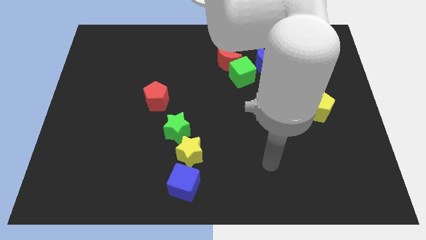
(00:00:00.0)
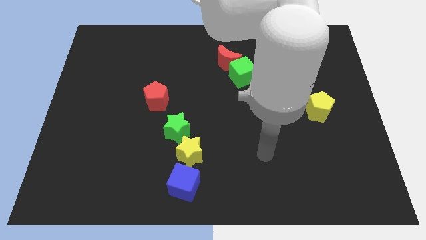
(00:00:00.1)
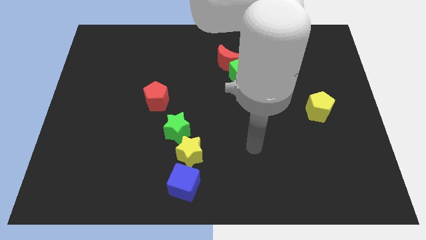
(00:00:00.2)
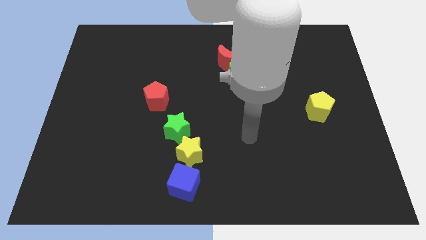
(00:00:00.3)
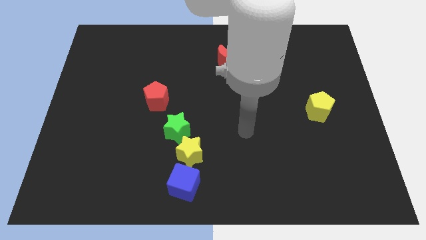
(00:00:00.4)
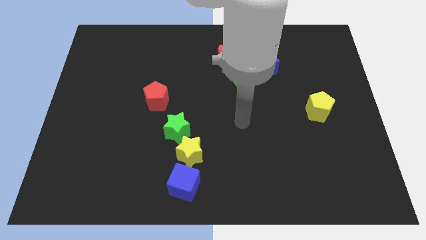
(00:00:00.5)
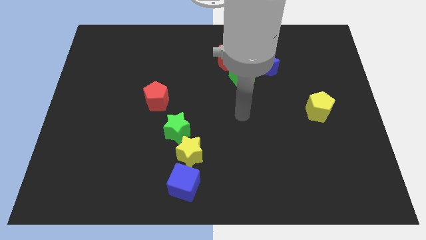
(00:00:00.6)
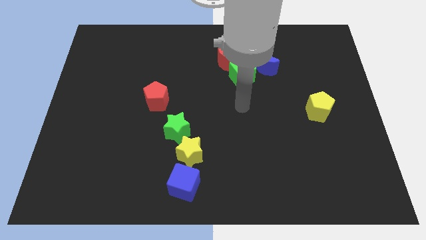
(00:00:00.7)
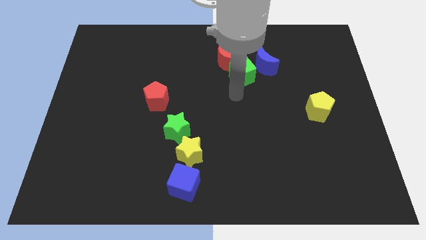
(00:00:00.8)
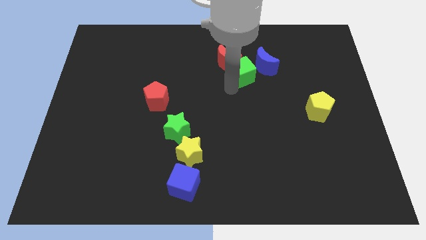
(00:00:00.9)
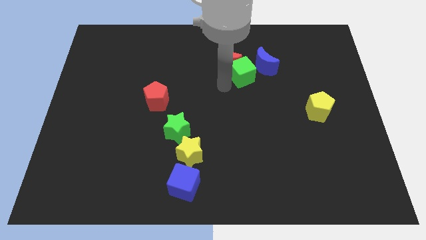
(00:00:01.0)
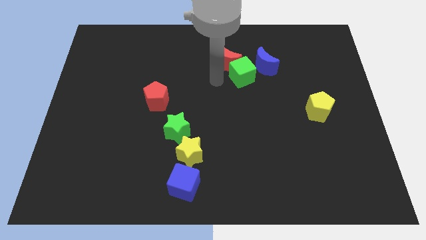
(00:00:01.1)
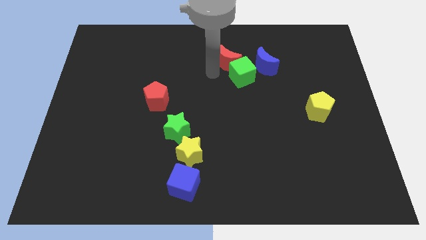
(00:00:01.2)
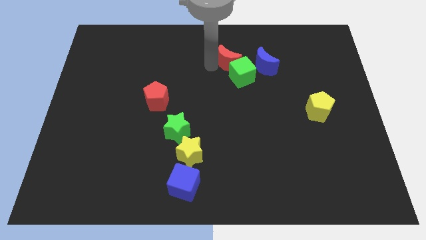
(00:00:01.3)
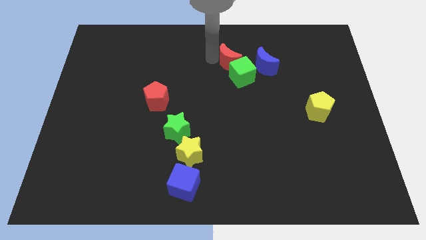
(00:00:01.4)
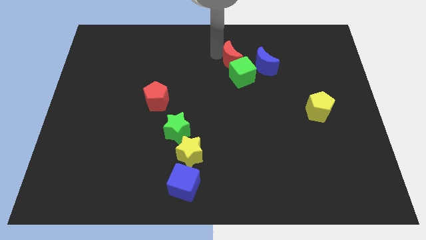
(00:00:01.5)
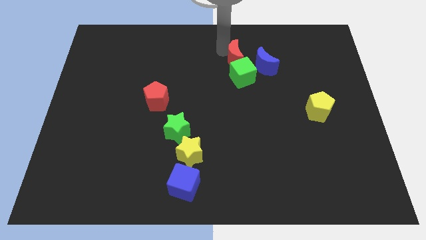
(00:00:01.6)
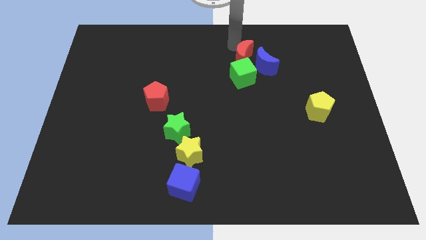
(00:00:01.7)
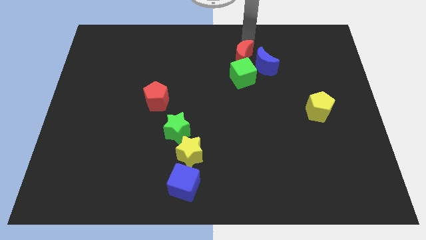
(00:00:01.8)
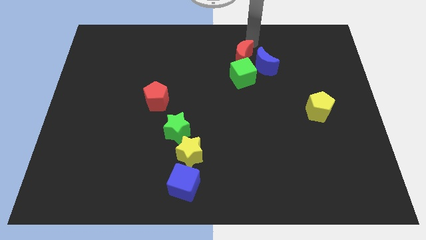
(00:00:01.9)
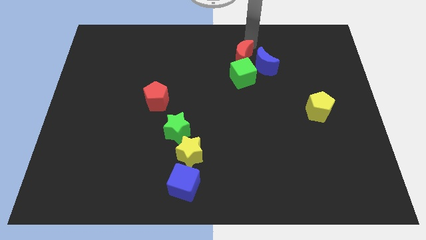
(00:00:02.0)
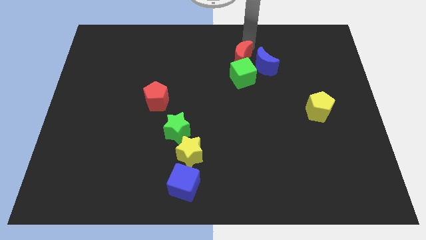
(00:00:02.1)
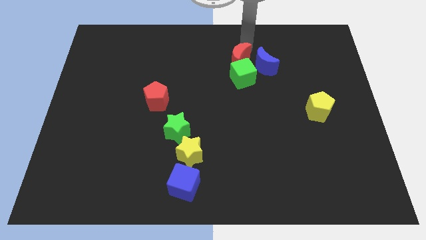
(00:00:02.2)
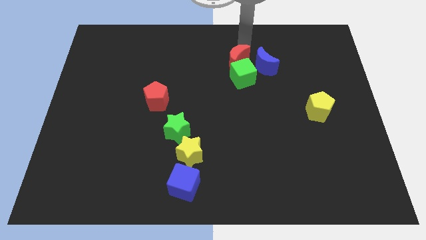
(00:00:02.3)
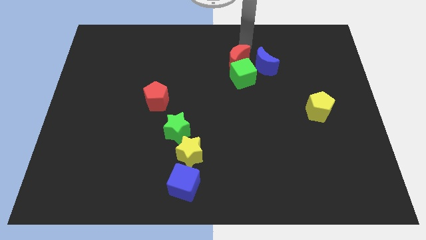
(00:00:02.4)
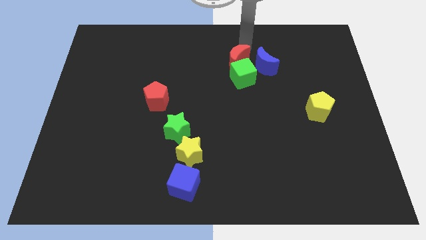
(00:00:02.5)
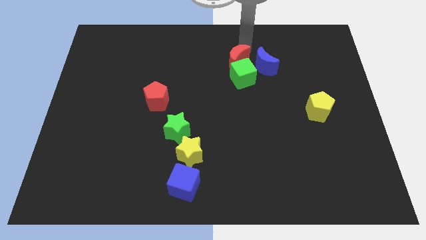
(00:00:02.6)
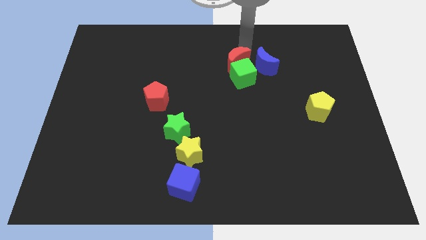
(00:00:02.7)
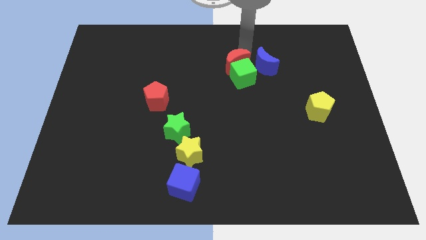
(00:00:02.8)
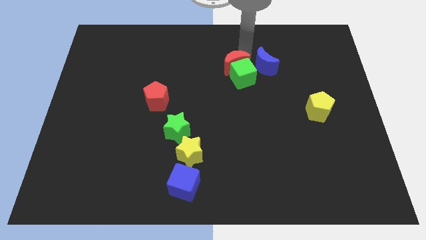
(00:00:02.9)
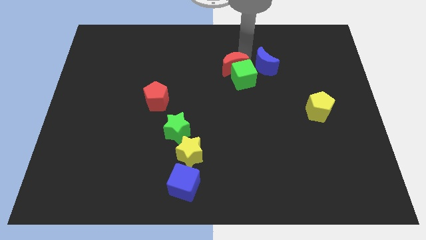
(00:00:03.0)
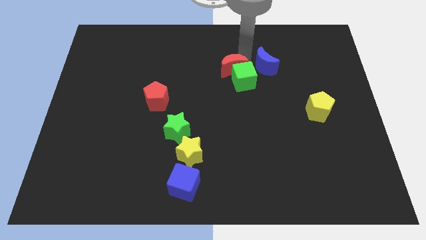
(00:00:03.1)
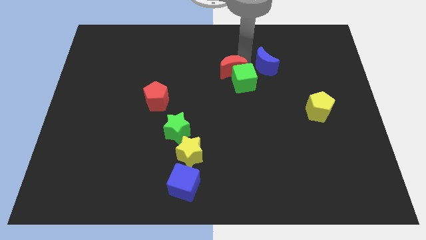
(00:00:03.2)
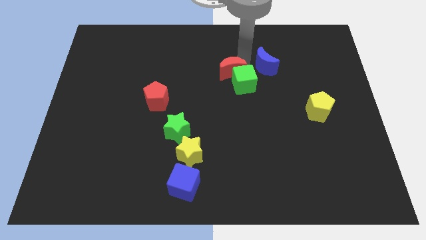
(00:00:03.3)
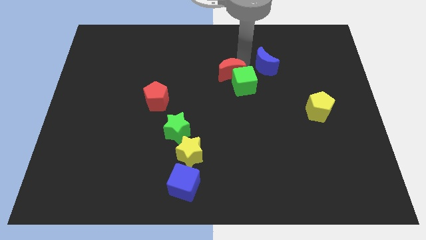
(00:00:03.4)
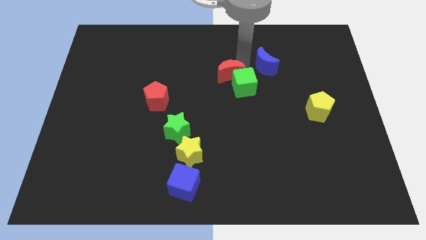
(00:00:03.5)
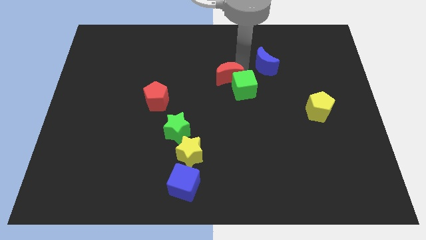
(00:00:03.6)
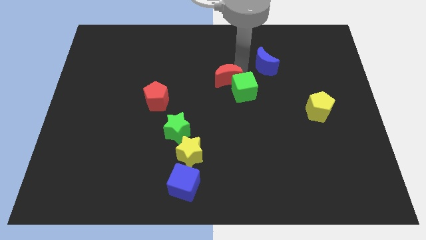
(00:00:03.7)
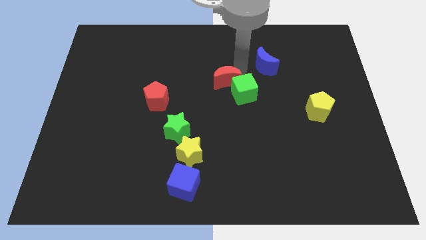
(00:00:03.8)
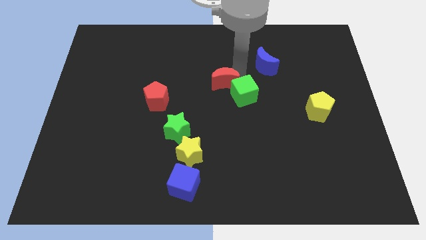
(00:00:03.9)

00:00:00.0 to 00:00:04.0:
push the red moon downwards a bit

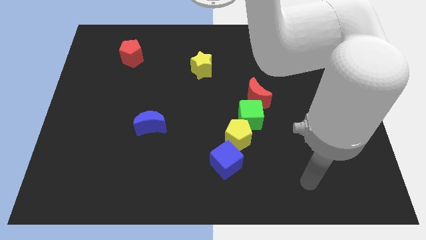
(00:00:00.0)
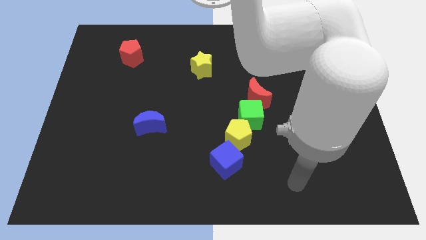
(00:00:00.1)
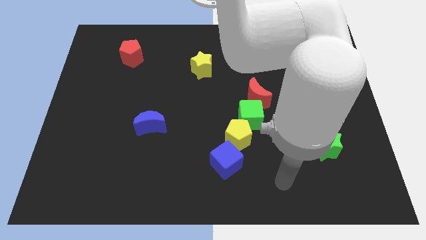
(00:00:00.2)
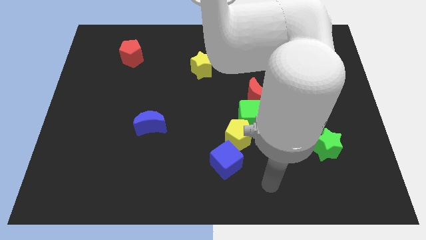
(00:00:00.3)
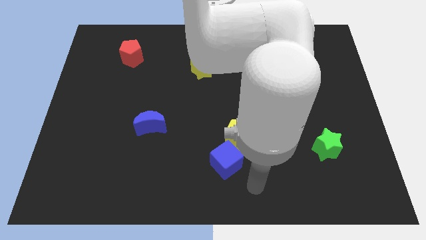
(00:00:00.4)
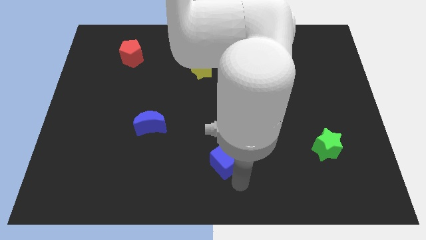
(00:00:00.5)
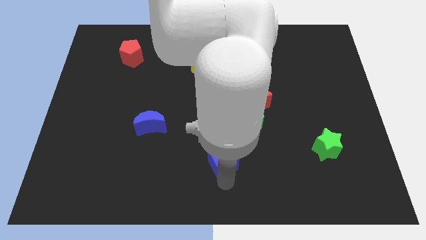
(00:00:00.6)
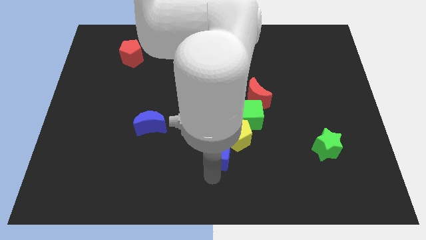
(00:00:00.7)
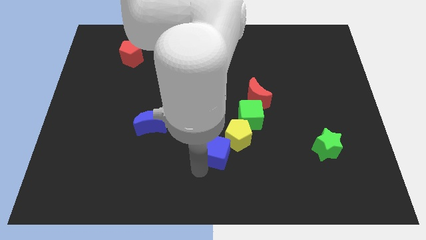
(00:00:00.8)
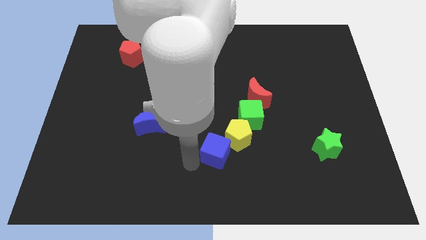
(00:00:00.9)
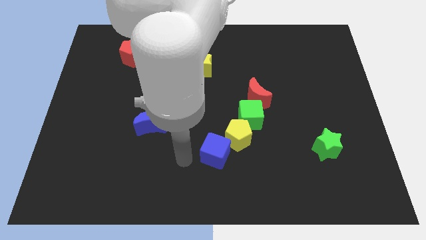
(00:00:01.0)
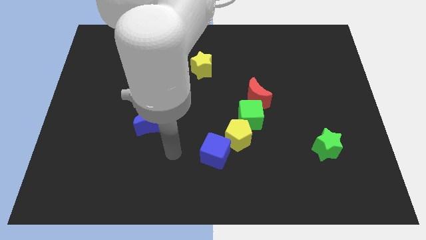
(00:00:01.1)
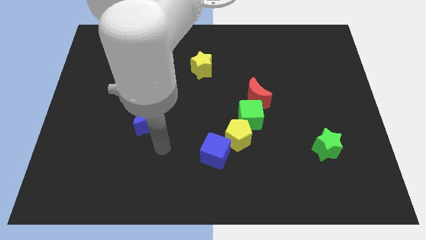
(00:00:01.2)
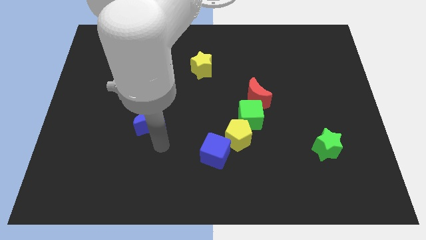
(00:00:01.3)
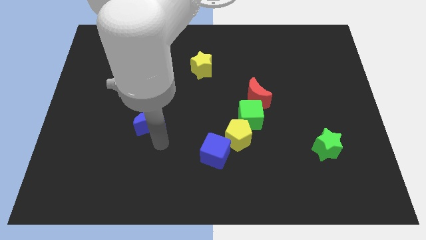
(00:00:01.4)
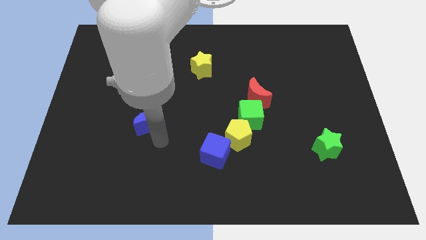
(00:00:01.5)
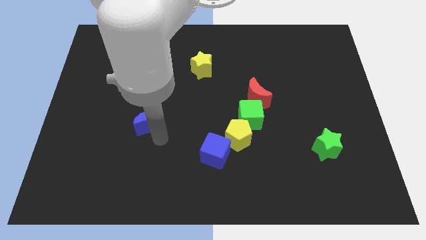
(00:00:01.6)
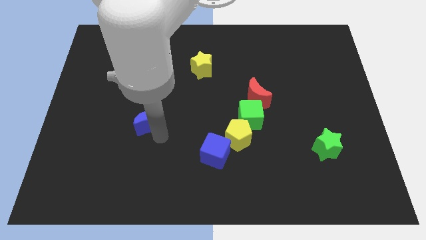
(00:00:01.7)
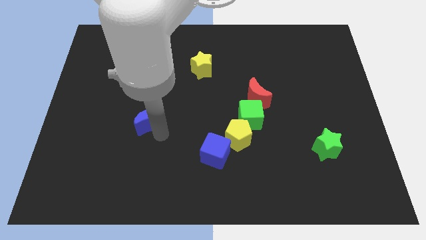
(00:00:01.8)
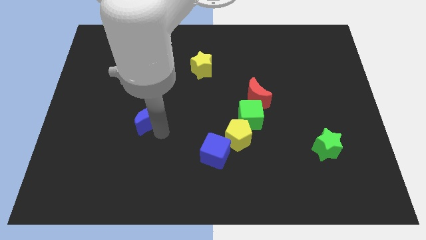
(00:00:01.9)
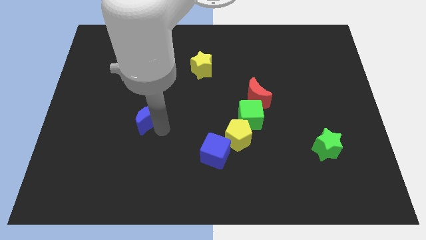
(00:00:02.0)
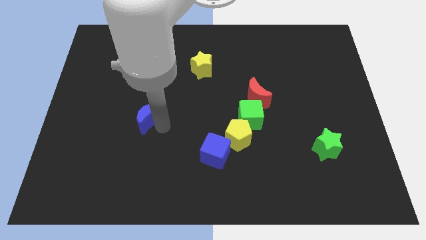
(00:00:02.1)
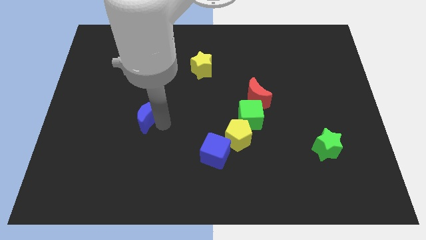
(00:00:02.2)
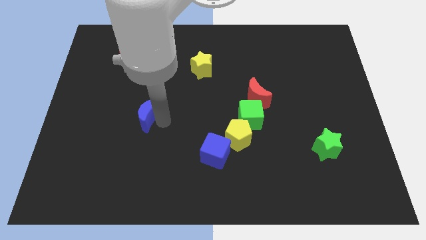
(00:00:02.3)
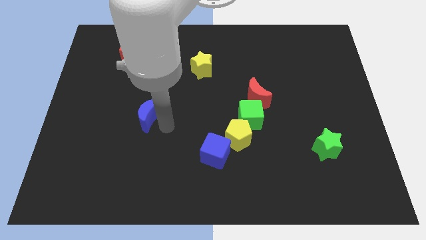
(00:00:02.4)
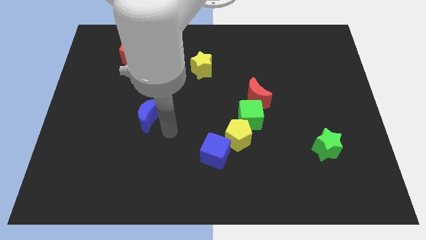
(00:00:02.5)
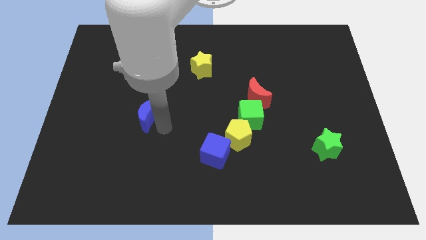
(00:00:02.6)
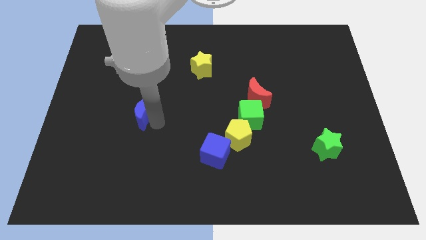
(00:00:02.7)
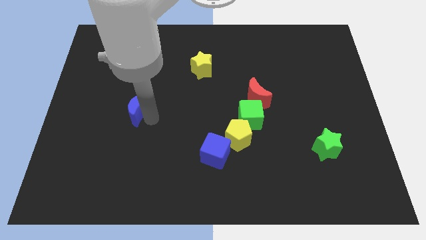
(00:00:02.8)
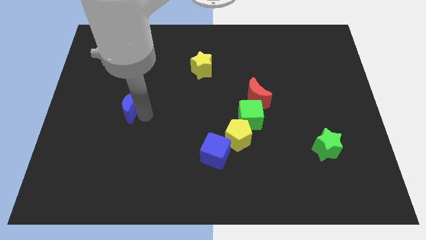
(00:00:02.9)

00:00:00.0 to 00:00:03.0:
slightly push the blue moon upwards and left

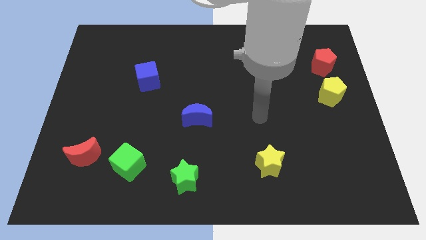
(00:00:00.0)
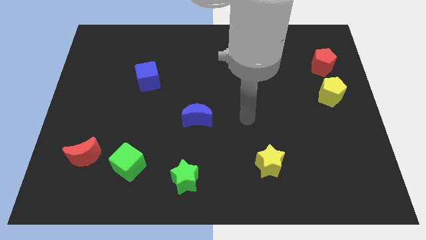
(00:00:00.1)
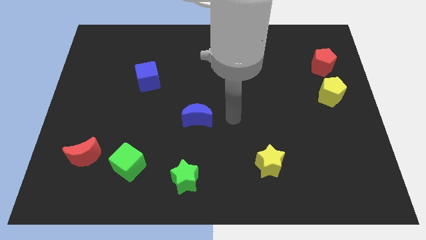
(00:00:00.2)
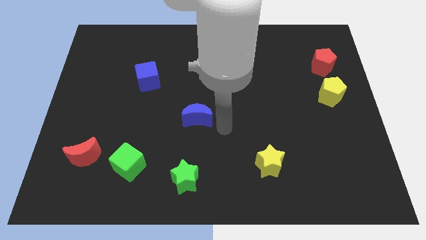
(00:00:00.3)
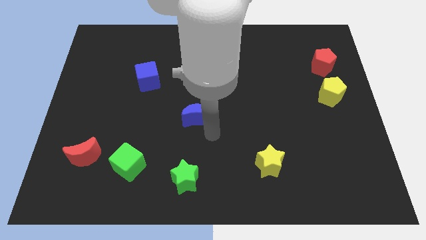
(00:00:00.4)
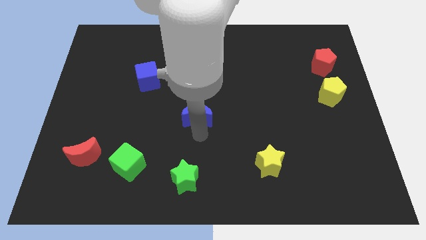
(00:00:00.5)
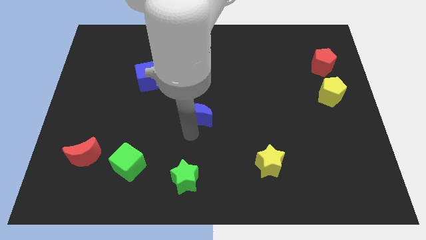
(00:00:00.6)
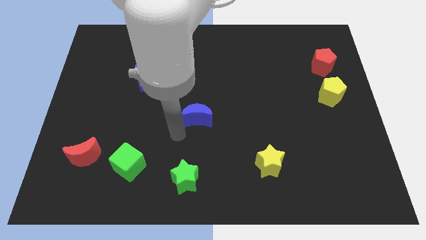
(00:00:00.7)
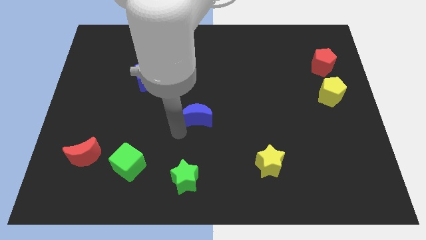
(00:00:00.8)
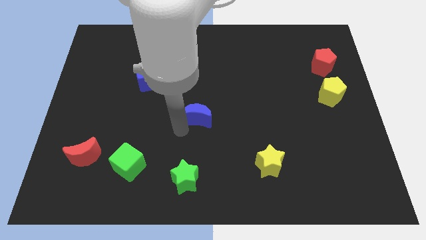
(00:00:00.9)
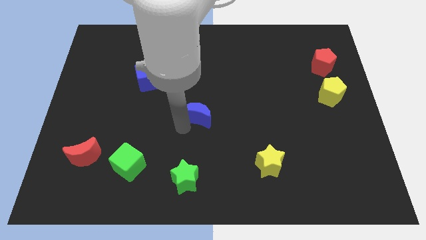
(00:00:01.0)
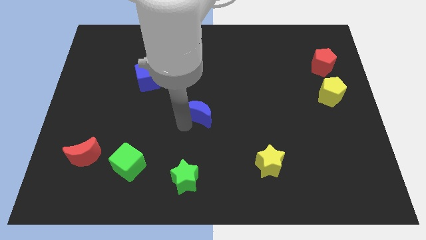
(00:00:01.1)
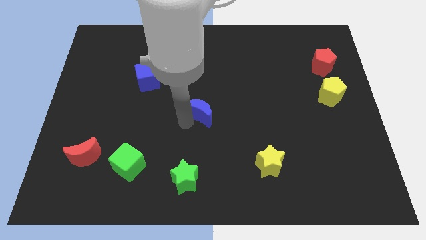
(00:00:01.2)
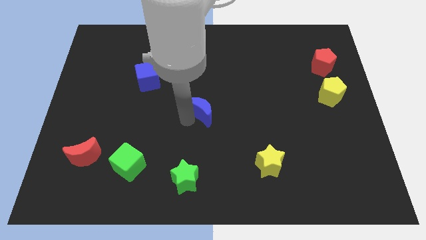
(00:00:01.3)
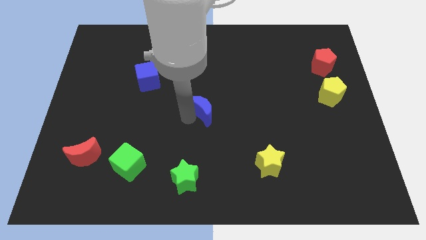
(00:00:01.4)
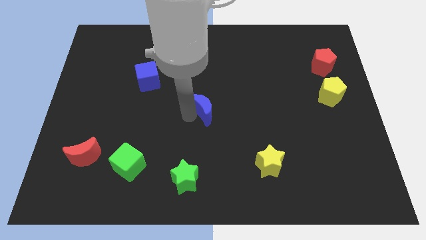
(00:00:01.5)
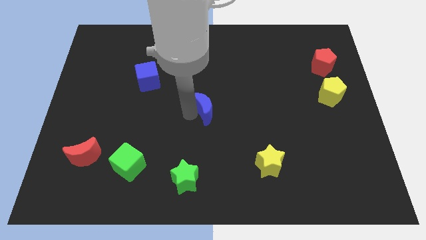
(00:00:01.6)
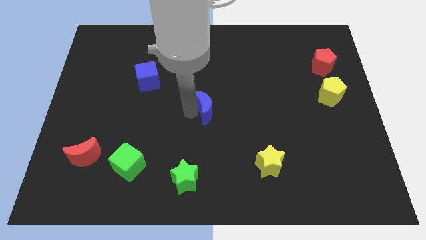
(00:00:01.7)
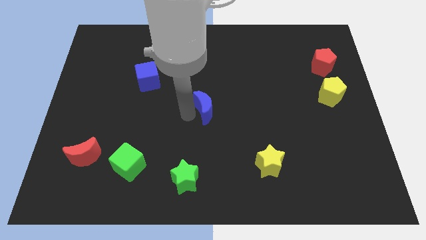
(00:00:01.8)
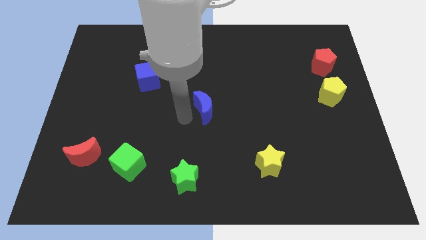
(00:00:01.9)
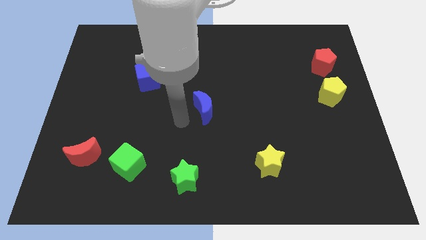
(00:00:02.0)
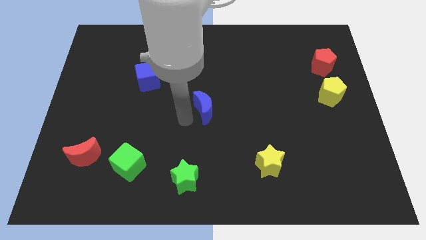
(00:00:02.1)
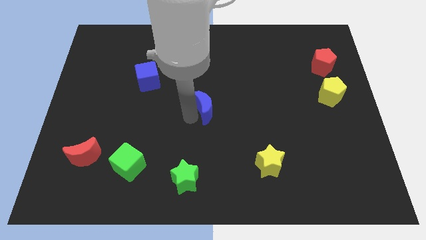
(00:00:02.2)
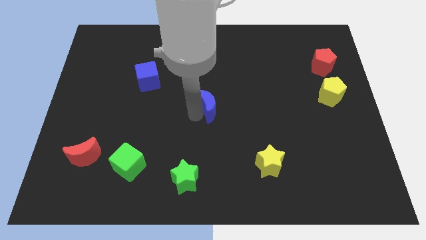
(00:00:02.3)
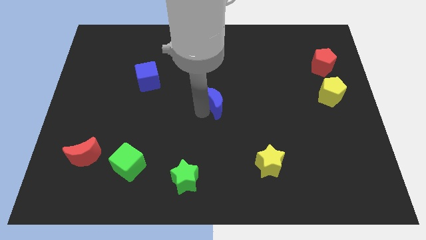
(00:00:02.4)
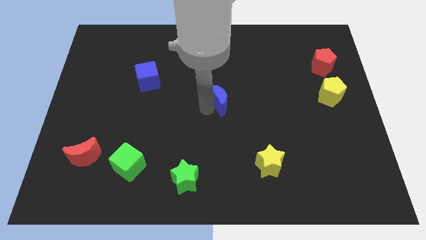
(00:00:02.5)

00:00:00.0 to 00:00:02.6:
slightly move the blue moon up and right
